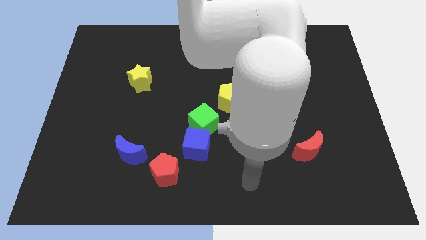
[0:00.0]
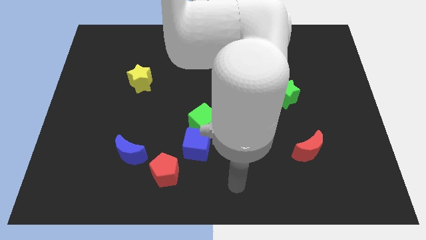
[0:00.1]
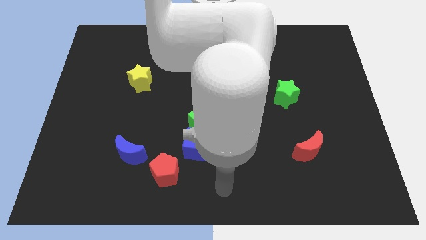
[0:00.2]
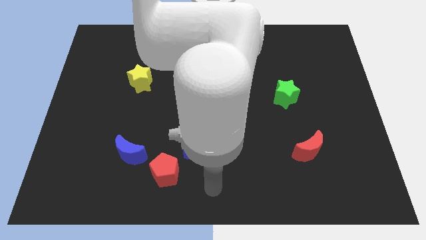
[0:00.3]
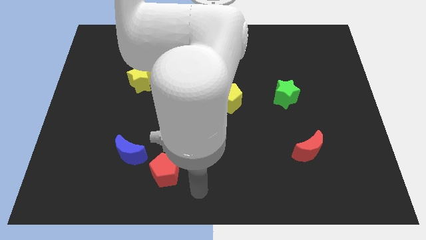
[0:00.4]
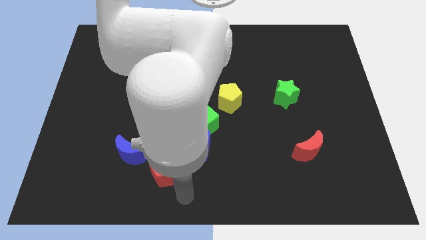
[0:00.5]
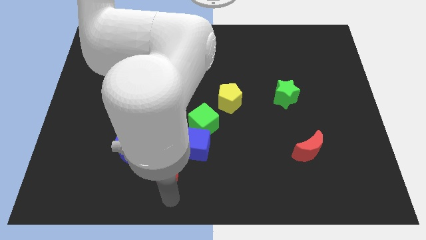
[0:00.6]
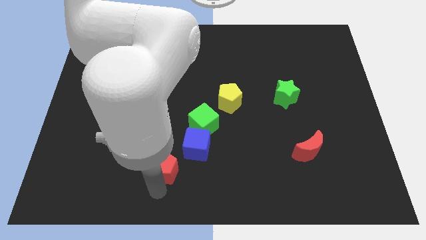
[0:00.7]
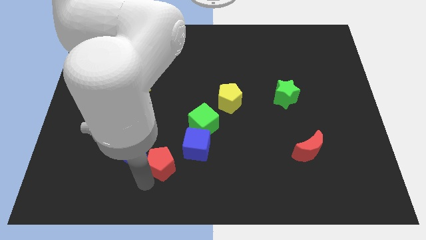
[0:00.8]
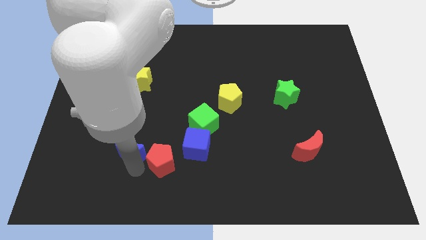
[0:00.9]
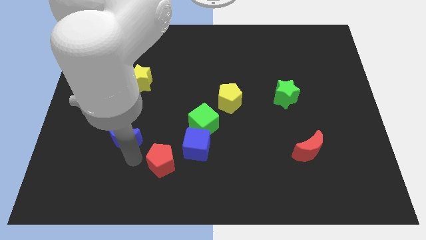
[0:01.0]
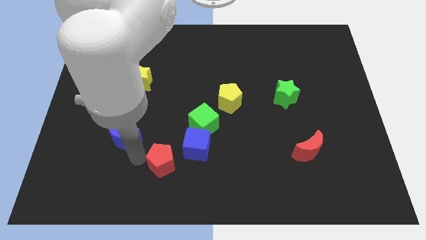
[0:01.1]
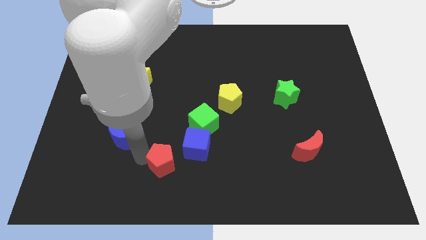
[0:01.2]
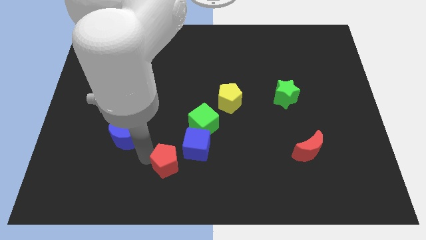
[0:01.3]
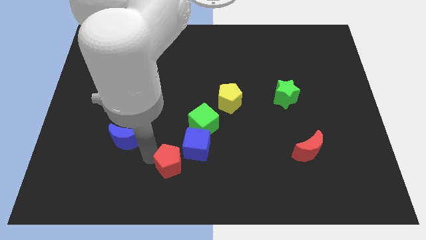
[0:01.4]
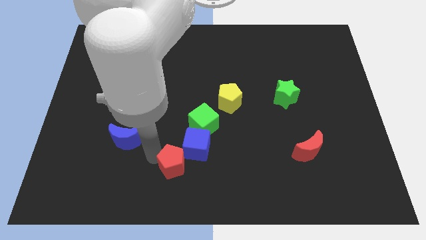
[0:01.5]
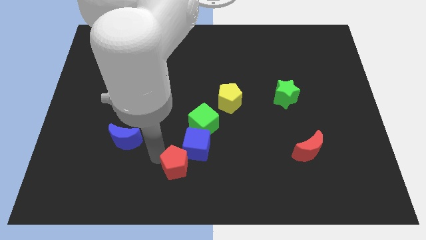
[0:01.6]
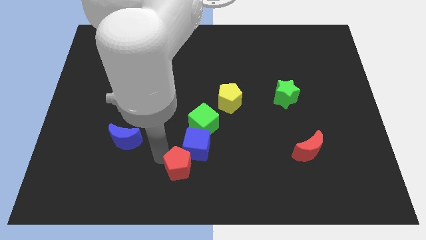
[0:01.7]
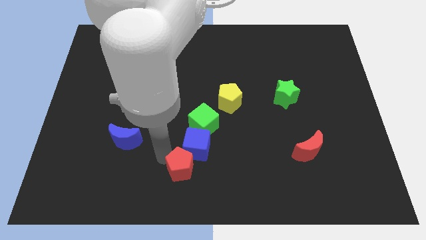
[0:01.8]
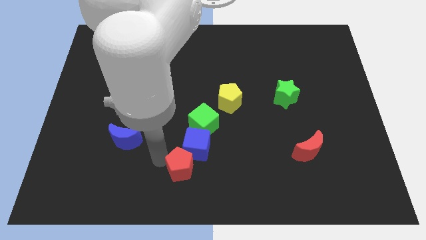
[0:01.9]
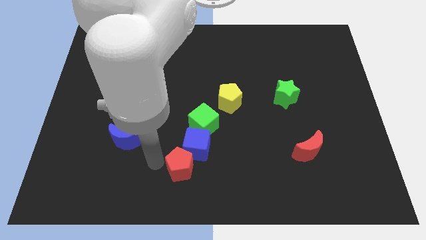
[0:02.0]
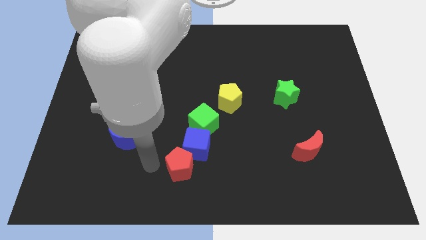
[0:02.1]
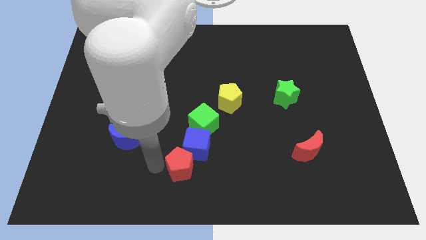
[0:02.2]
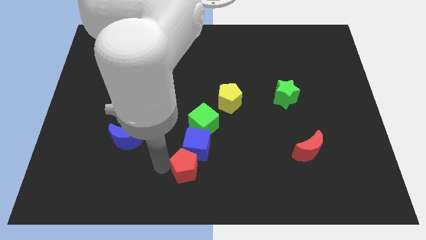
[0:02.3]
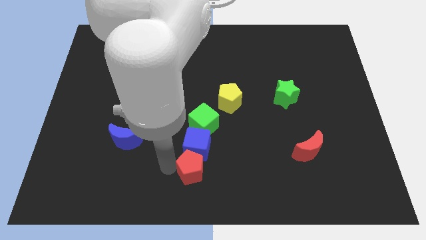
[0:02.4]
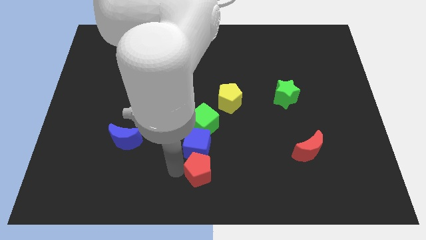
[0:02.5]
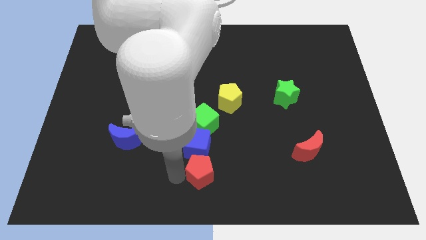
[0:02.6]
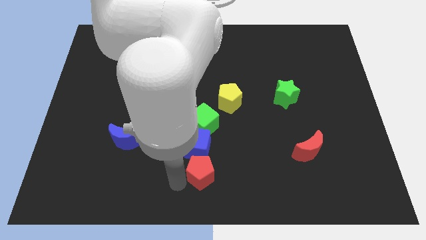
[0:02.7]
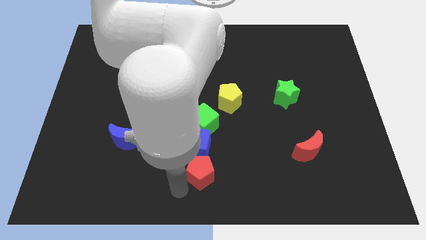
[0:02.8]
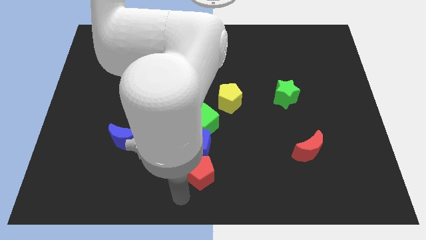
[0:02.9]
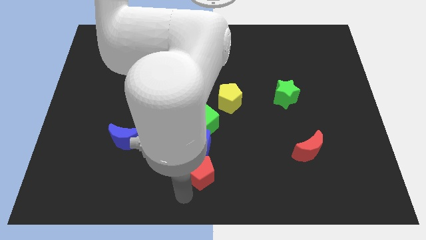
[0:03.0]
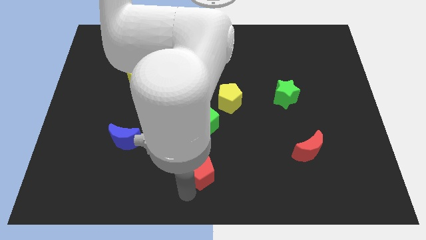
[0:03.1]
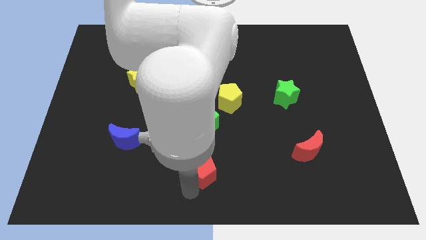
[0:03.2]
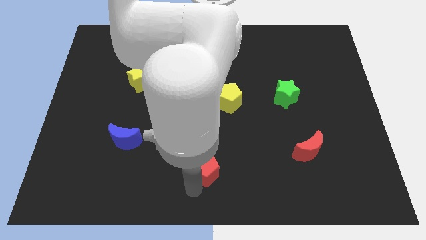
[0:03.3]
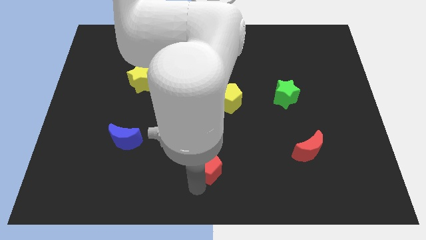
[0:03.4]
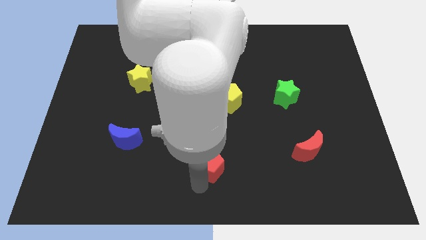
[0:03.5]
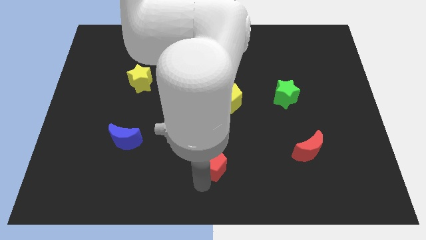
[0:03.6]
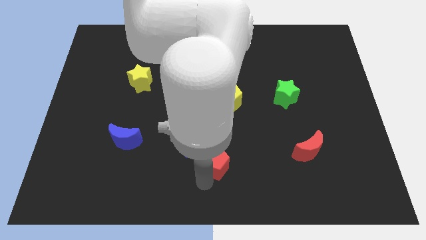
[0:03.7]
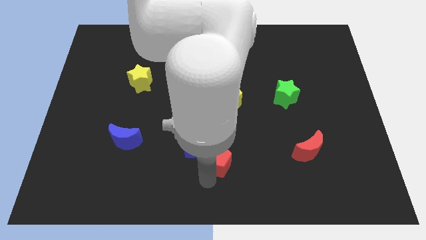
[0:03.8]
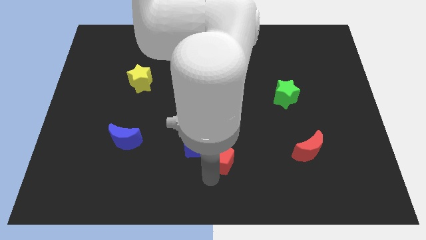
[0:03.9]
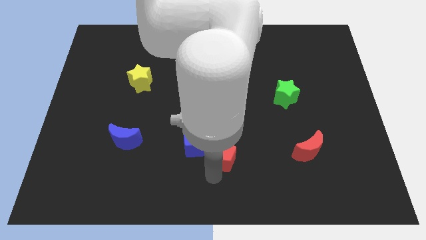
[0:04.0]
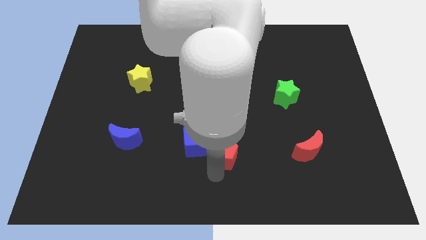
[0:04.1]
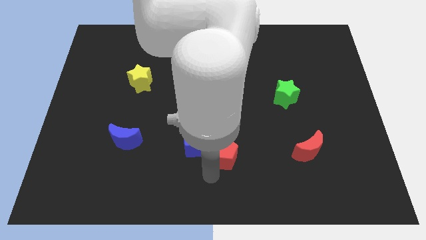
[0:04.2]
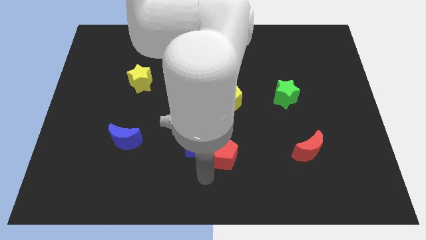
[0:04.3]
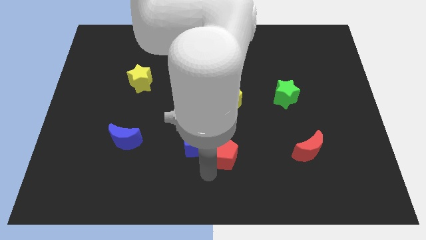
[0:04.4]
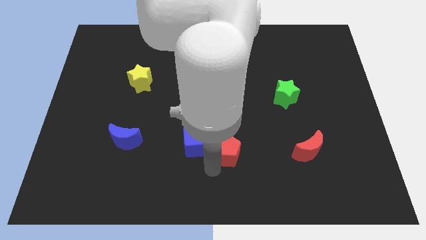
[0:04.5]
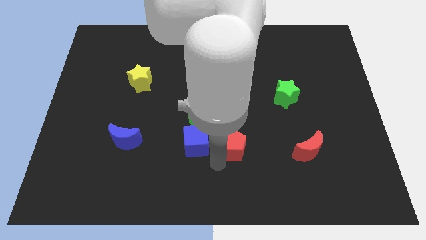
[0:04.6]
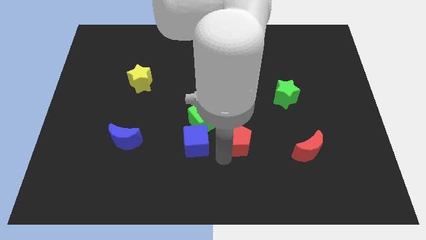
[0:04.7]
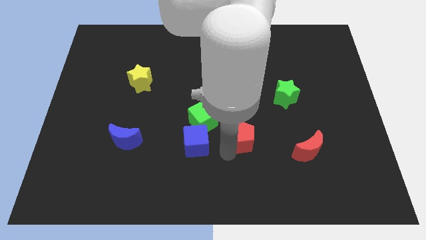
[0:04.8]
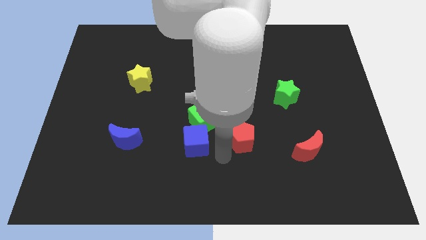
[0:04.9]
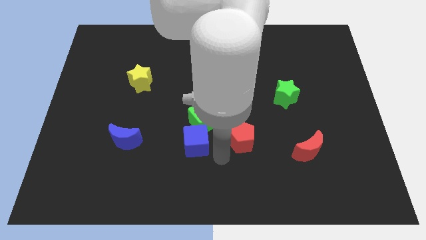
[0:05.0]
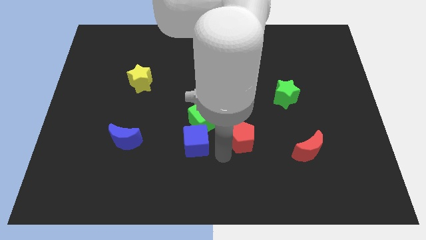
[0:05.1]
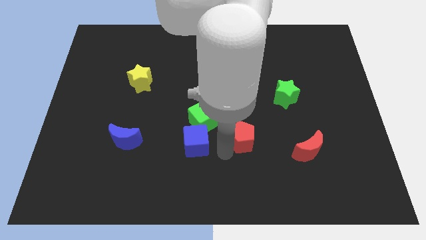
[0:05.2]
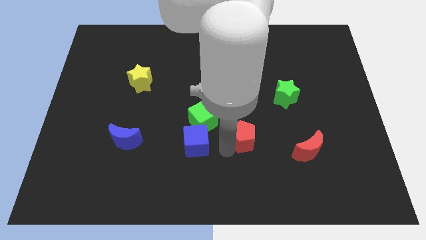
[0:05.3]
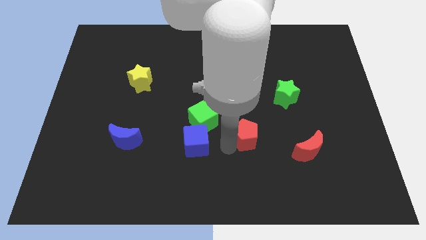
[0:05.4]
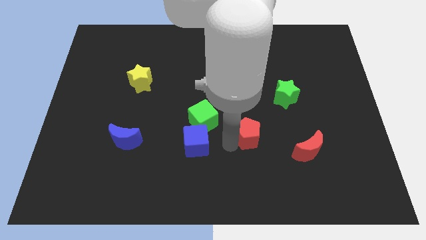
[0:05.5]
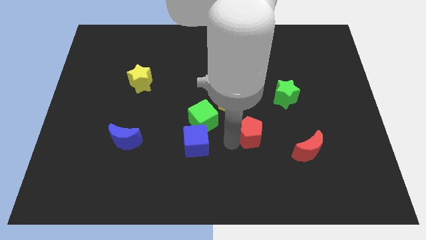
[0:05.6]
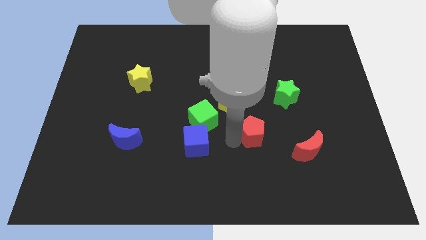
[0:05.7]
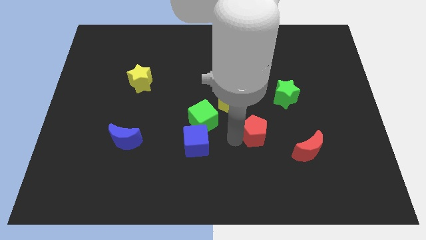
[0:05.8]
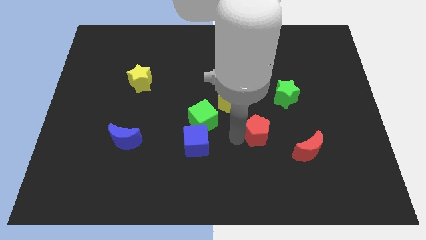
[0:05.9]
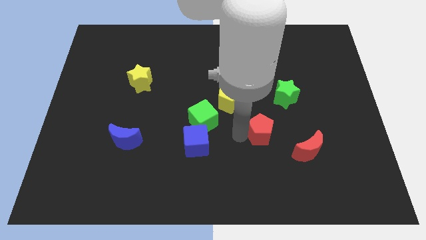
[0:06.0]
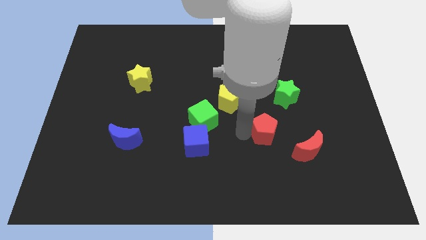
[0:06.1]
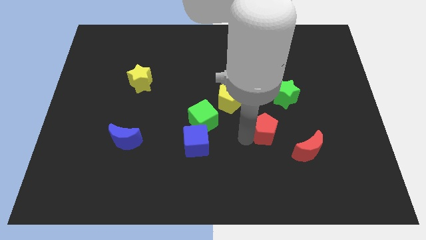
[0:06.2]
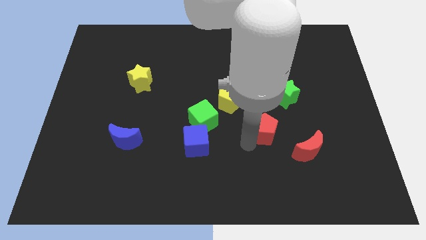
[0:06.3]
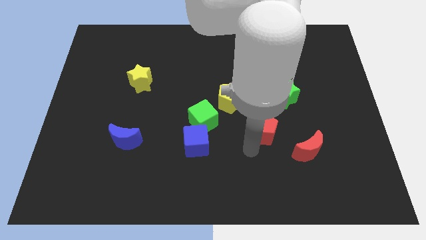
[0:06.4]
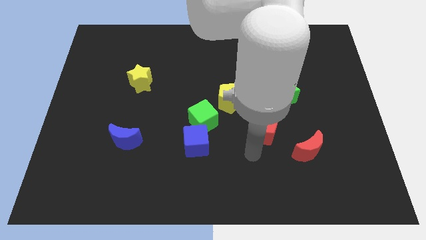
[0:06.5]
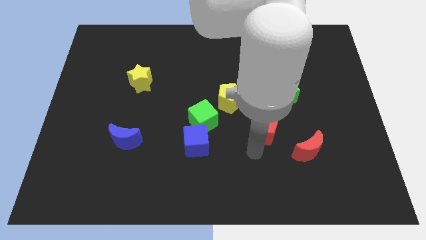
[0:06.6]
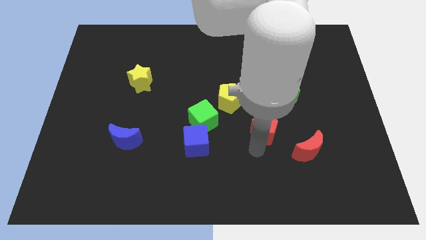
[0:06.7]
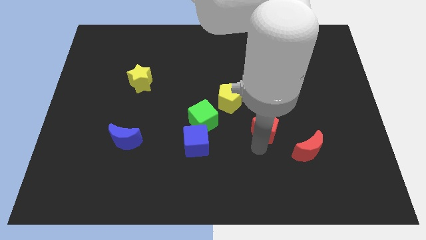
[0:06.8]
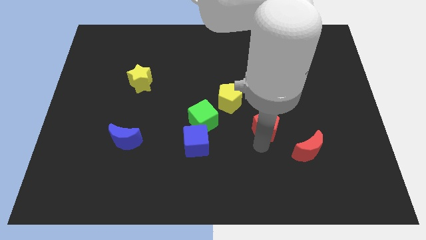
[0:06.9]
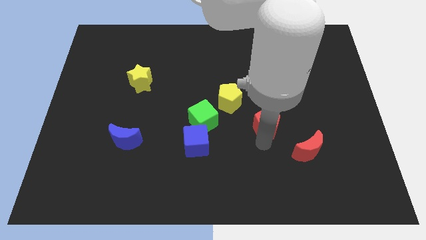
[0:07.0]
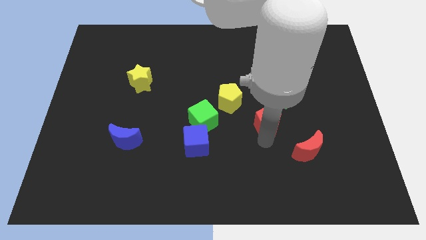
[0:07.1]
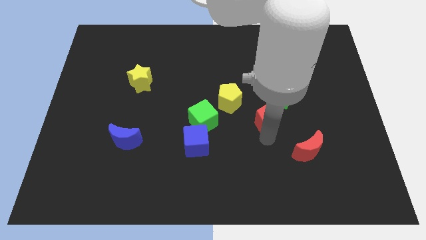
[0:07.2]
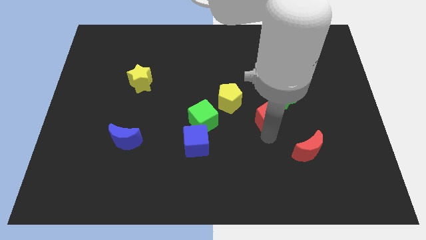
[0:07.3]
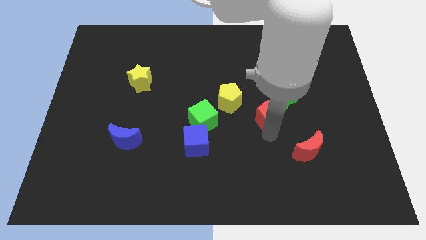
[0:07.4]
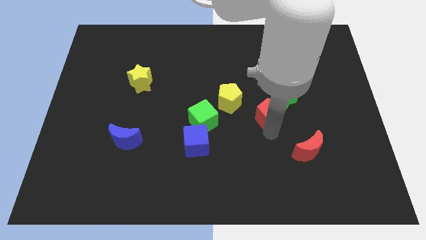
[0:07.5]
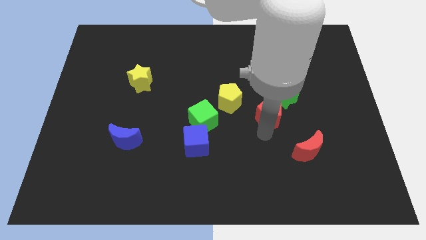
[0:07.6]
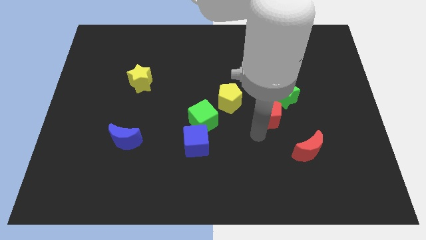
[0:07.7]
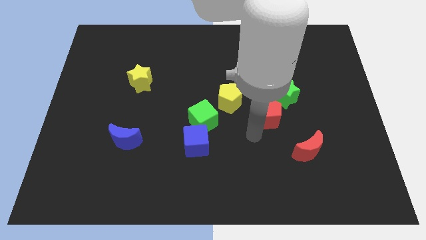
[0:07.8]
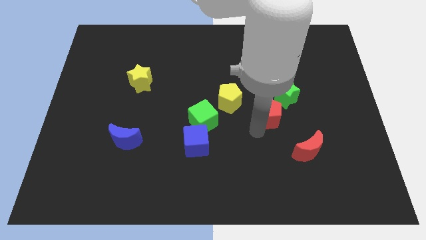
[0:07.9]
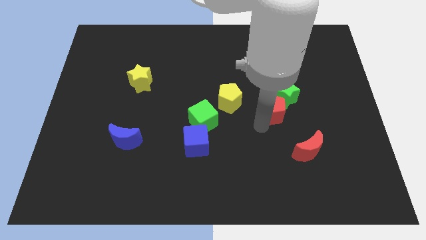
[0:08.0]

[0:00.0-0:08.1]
push the red pentagon close to the green star
